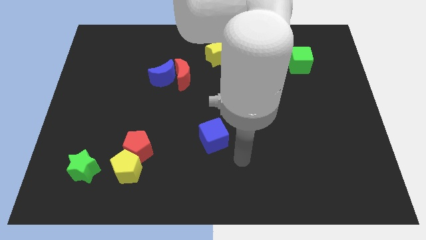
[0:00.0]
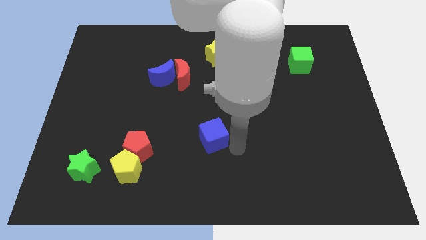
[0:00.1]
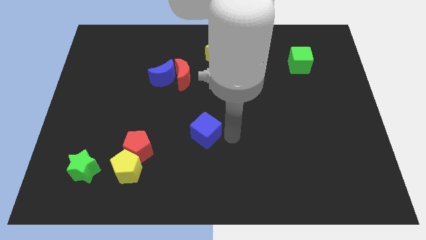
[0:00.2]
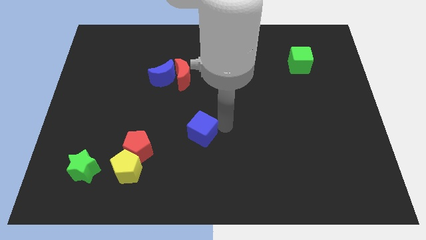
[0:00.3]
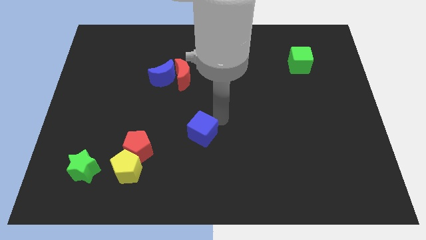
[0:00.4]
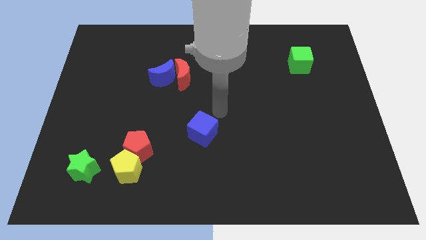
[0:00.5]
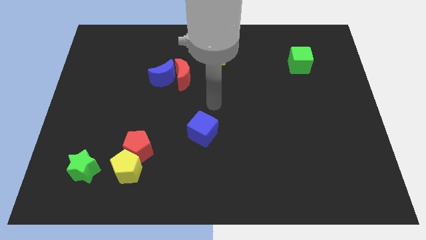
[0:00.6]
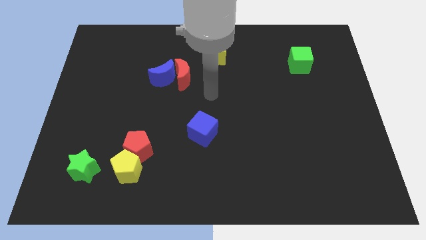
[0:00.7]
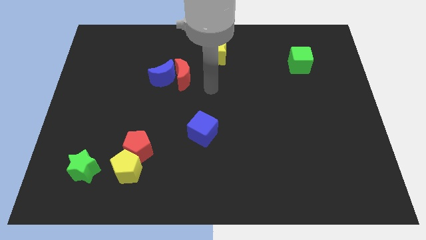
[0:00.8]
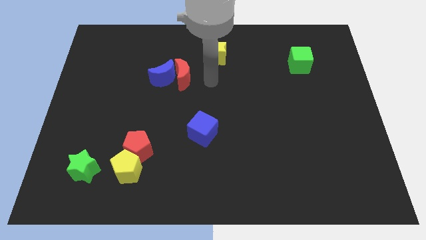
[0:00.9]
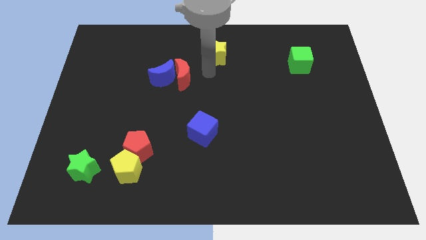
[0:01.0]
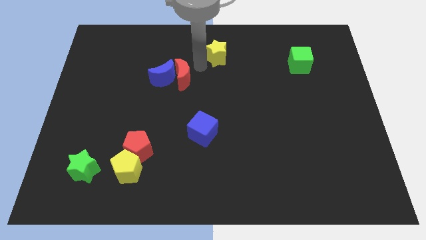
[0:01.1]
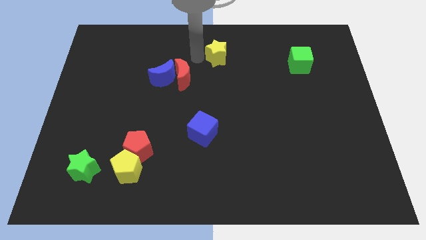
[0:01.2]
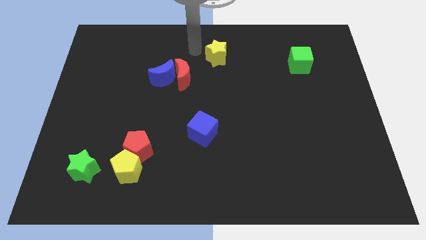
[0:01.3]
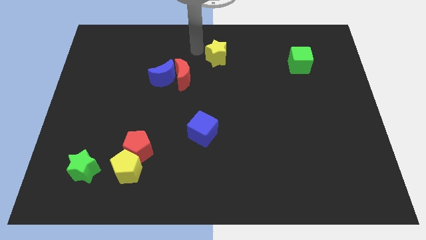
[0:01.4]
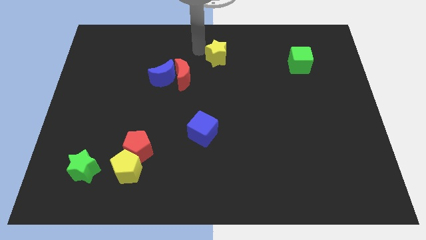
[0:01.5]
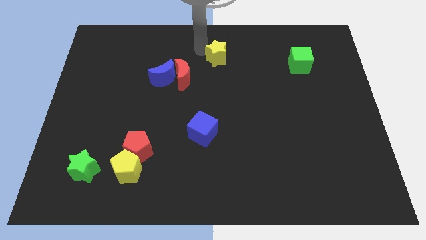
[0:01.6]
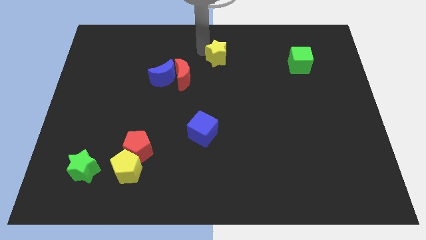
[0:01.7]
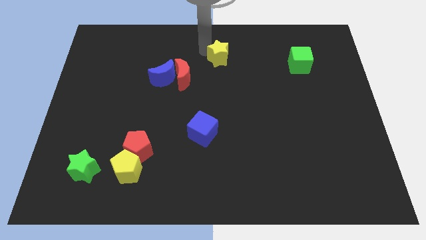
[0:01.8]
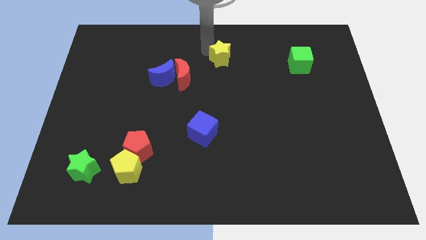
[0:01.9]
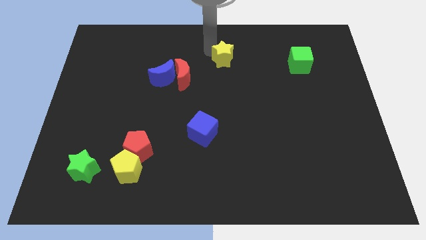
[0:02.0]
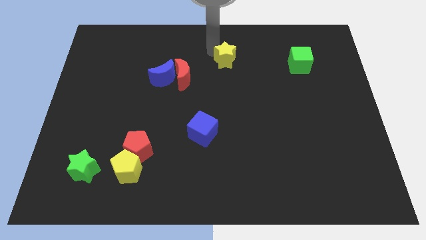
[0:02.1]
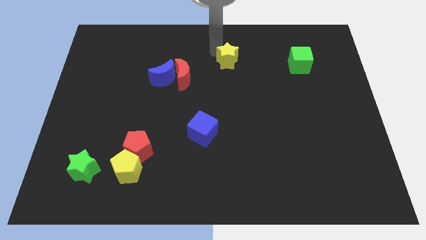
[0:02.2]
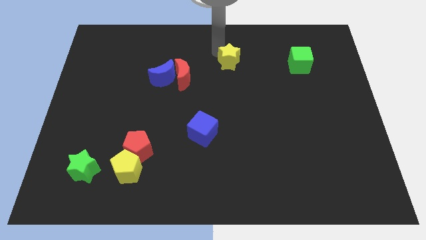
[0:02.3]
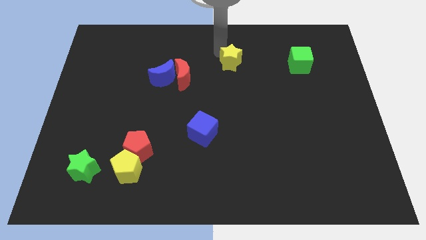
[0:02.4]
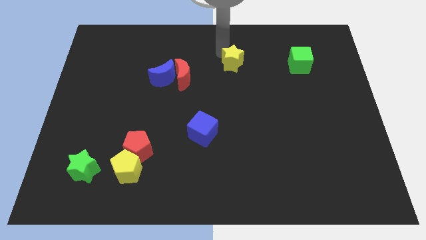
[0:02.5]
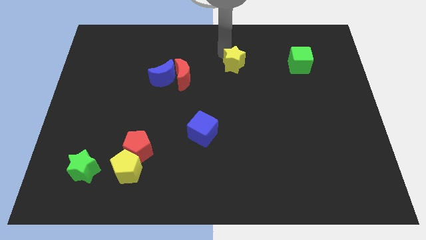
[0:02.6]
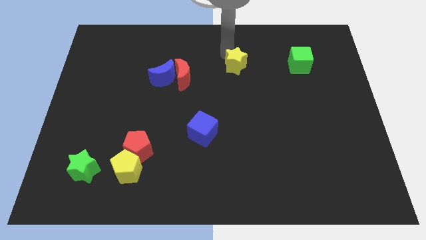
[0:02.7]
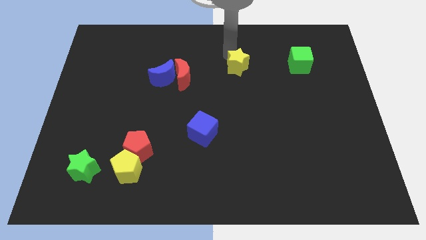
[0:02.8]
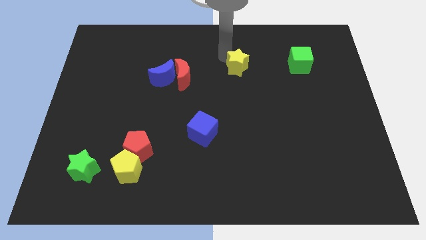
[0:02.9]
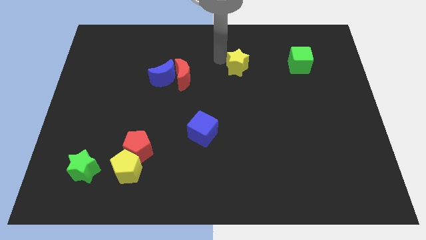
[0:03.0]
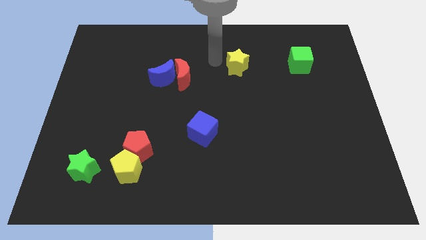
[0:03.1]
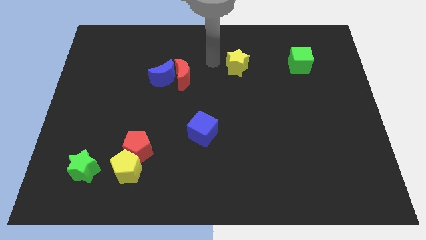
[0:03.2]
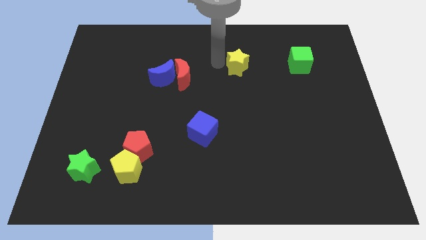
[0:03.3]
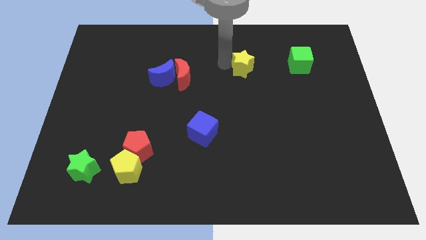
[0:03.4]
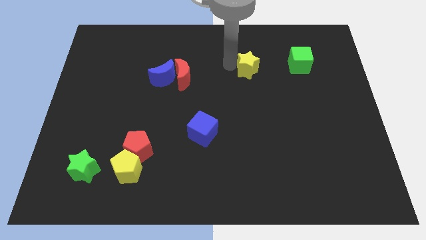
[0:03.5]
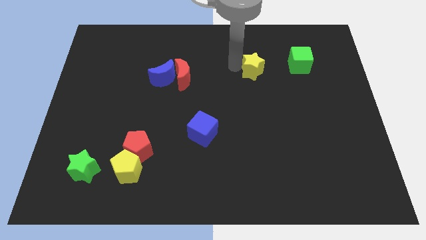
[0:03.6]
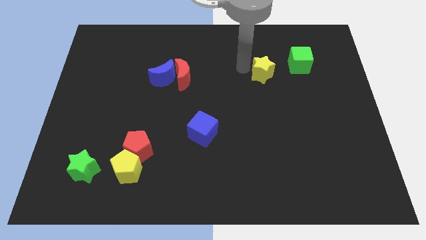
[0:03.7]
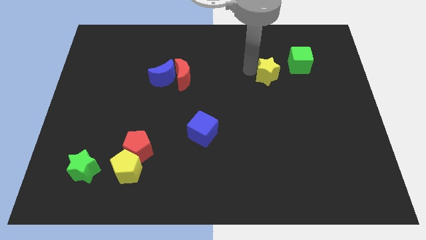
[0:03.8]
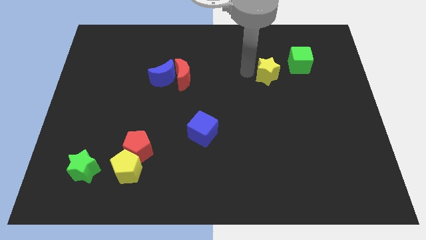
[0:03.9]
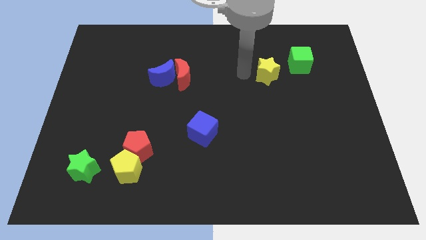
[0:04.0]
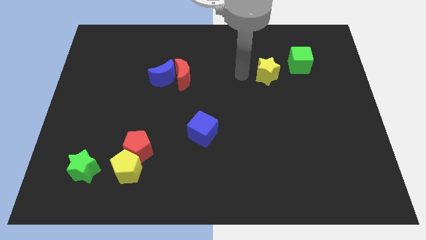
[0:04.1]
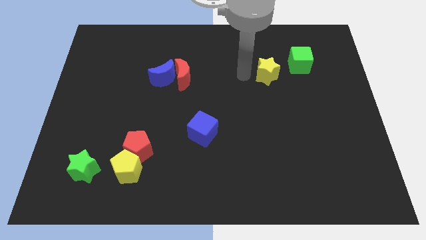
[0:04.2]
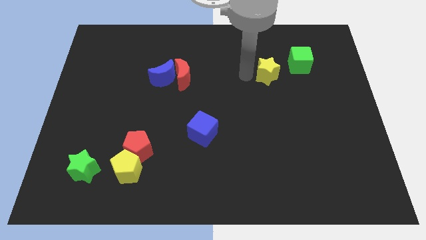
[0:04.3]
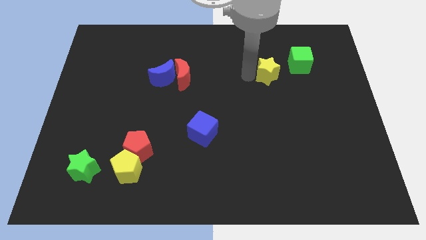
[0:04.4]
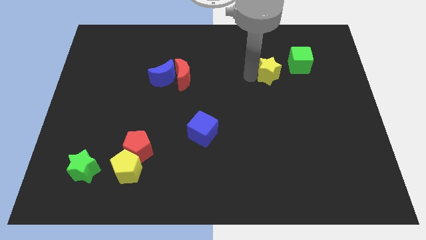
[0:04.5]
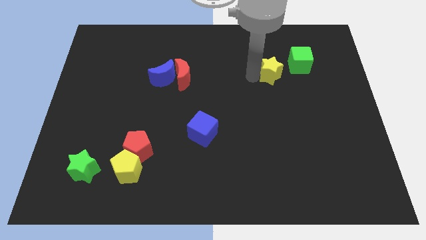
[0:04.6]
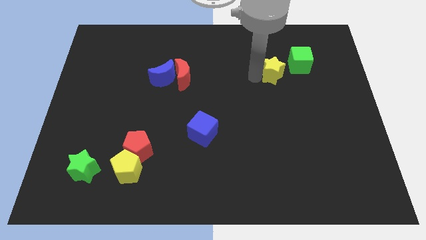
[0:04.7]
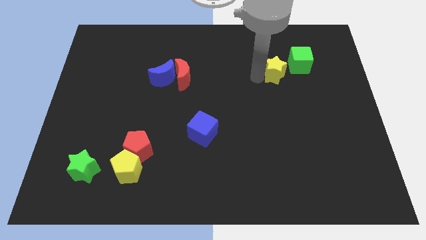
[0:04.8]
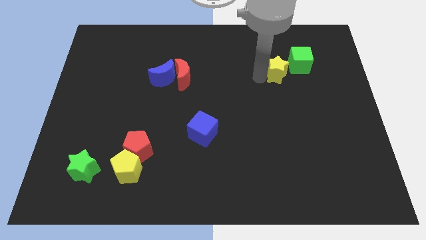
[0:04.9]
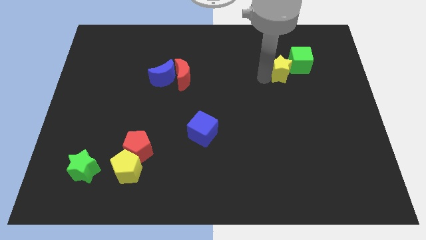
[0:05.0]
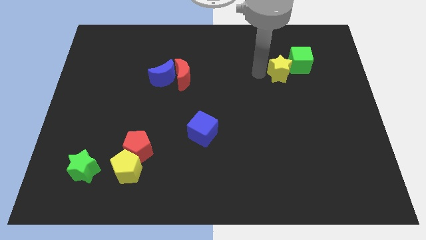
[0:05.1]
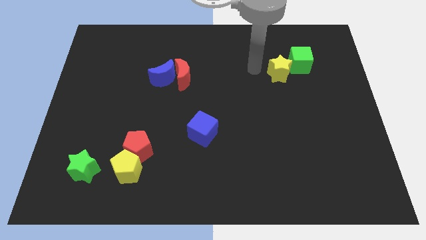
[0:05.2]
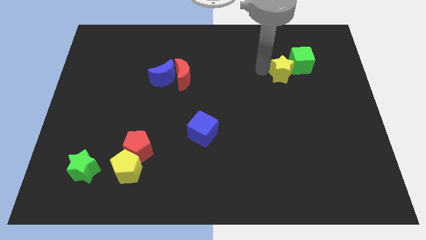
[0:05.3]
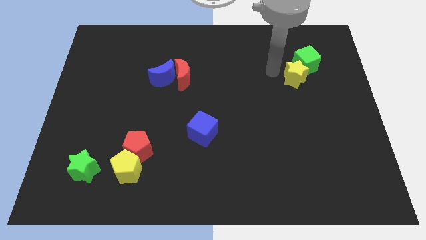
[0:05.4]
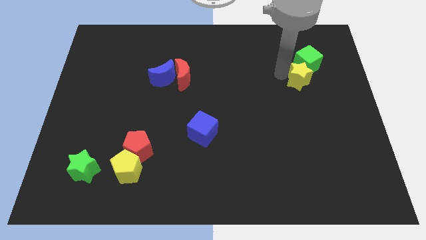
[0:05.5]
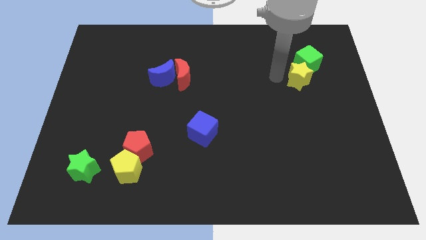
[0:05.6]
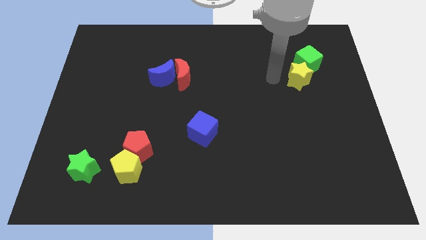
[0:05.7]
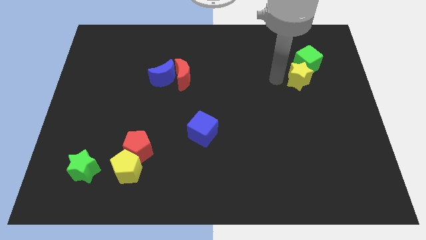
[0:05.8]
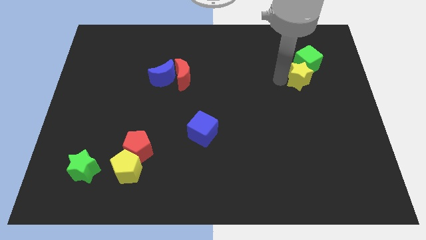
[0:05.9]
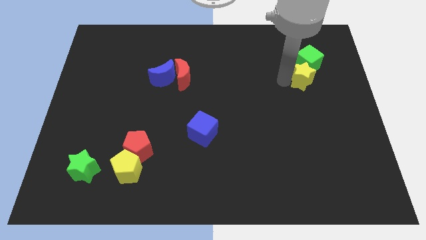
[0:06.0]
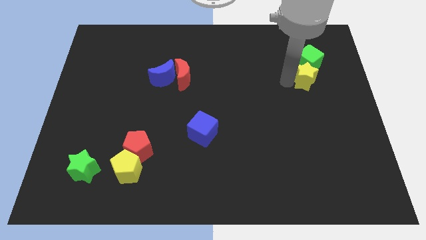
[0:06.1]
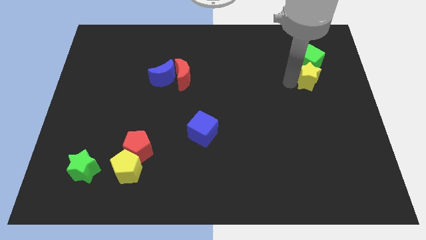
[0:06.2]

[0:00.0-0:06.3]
slide the yellow star to the bottom right side of the green cube

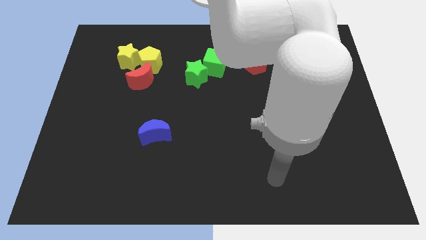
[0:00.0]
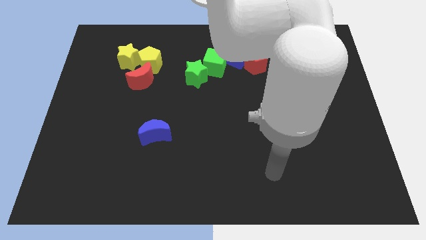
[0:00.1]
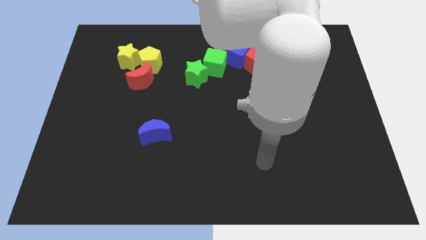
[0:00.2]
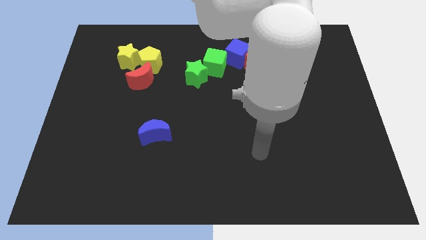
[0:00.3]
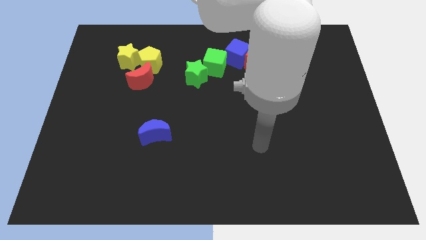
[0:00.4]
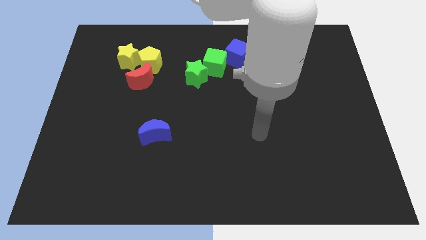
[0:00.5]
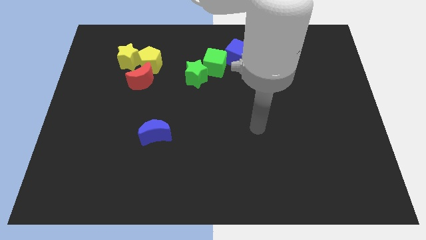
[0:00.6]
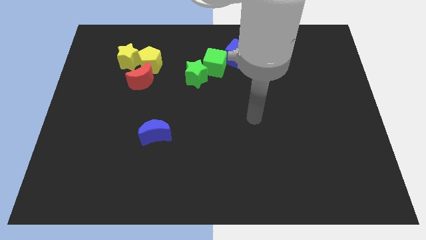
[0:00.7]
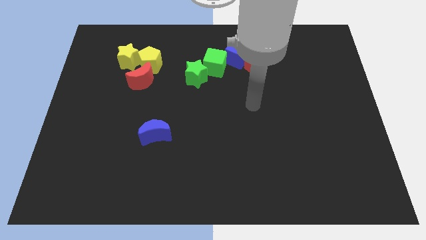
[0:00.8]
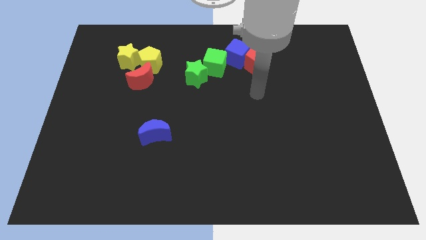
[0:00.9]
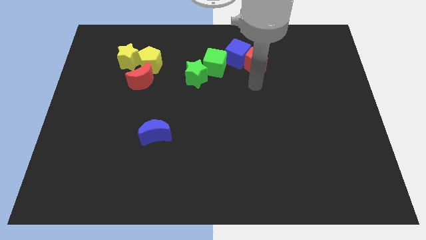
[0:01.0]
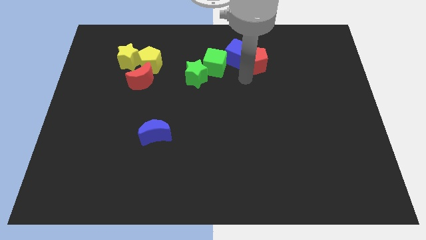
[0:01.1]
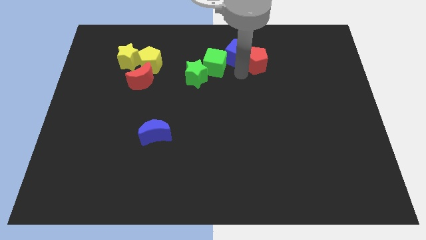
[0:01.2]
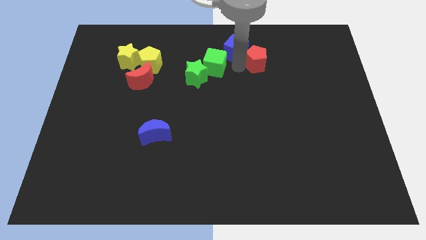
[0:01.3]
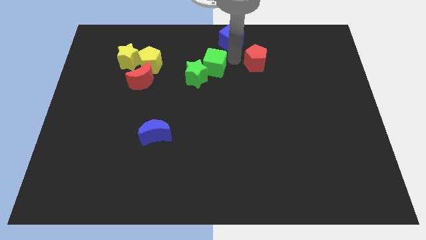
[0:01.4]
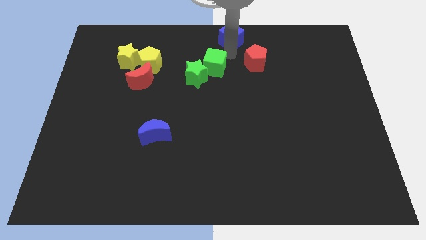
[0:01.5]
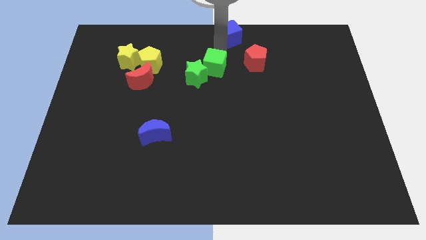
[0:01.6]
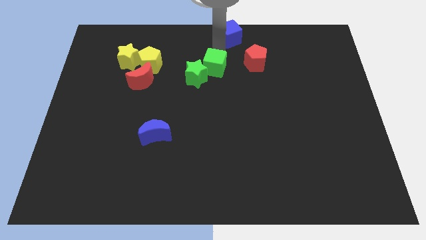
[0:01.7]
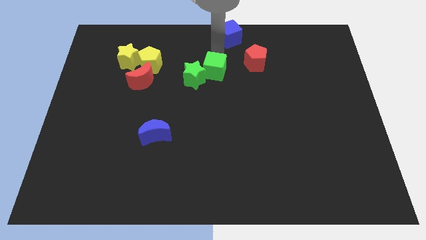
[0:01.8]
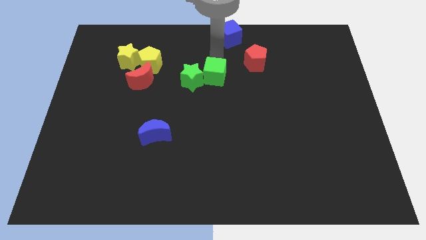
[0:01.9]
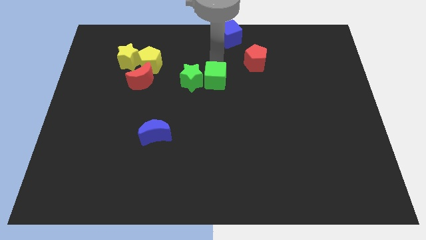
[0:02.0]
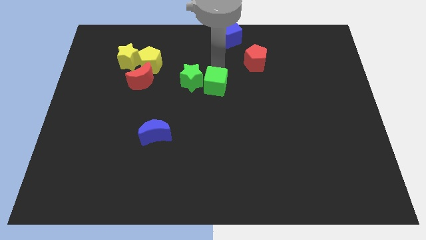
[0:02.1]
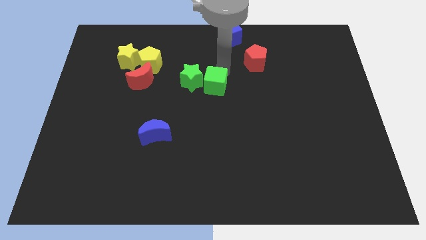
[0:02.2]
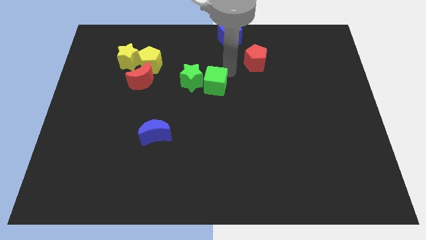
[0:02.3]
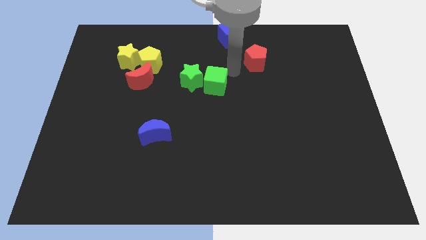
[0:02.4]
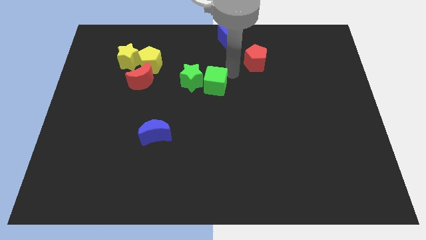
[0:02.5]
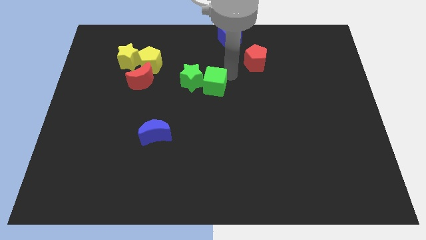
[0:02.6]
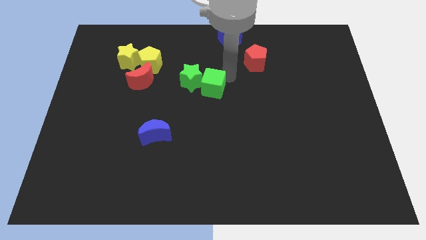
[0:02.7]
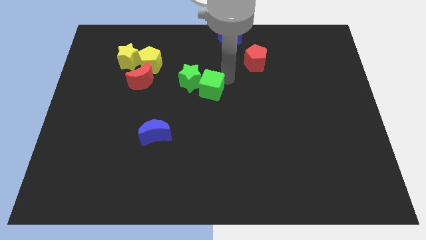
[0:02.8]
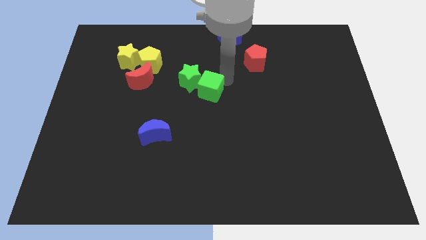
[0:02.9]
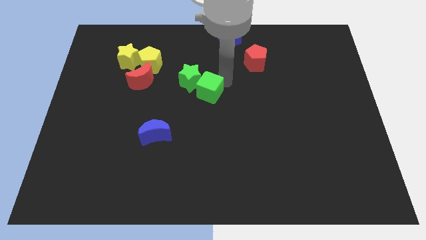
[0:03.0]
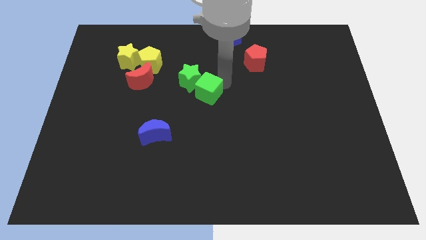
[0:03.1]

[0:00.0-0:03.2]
put the green cube below the green star
